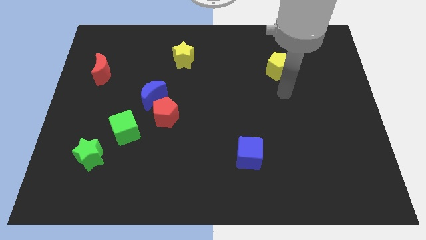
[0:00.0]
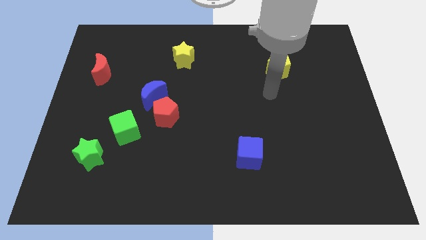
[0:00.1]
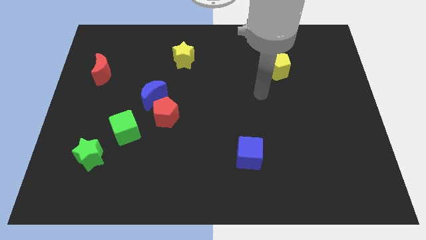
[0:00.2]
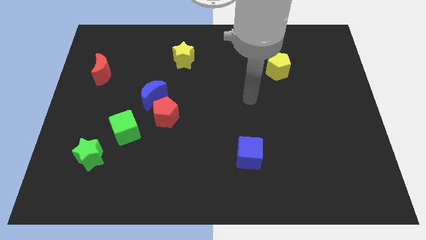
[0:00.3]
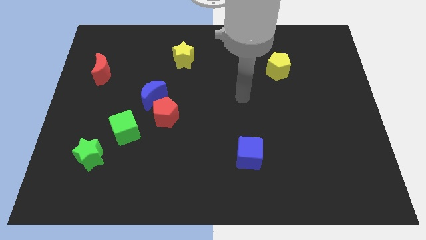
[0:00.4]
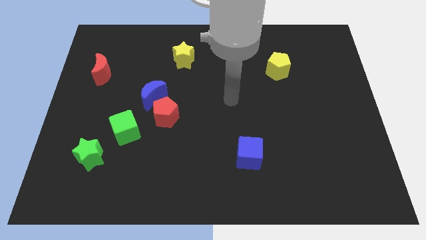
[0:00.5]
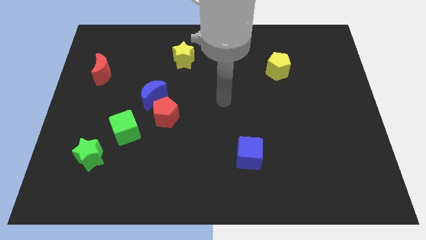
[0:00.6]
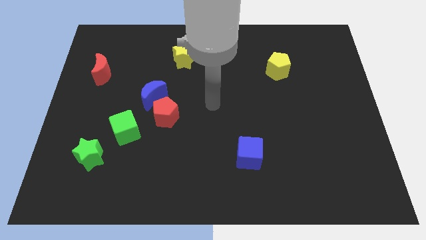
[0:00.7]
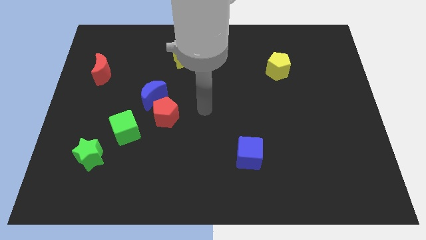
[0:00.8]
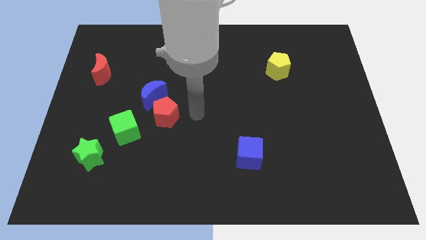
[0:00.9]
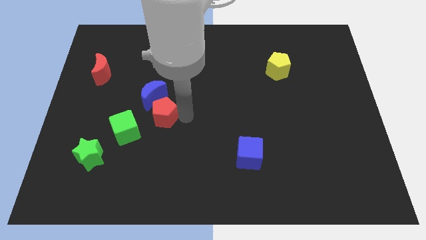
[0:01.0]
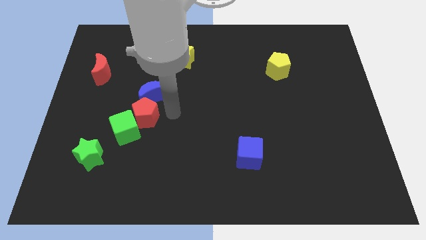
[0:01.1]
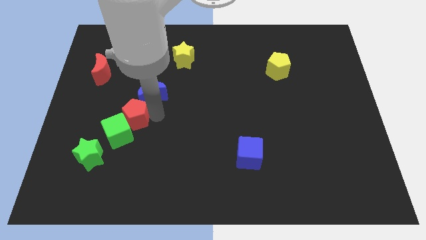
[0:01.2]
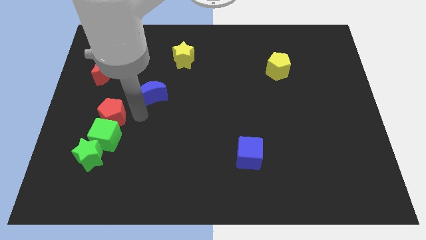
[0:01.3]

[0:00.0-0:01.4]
separate the blue moon from the red pentagon

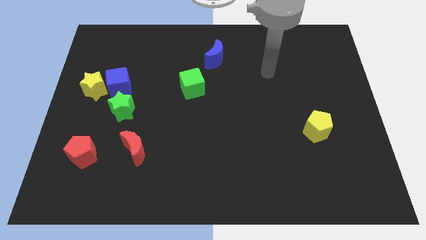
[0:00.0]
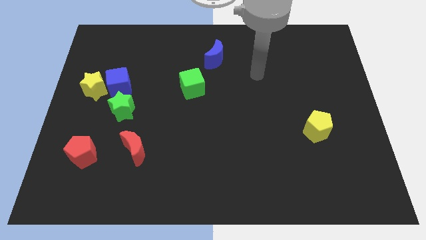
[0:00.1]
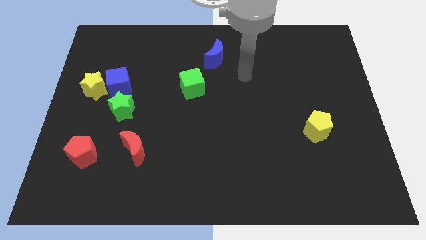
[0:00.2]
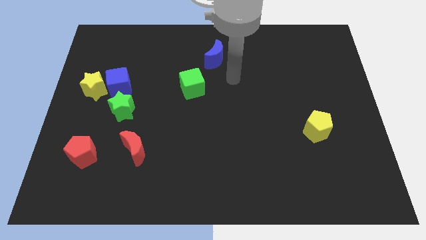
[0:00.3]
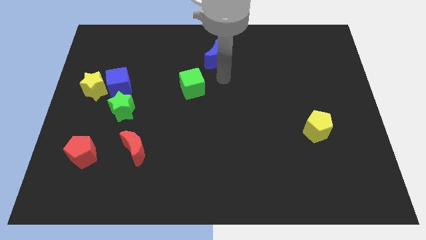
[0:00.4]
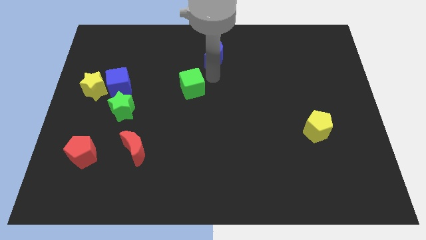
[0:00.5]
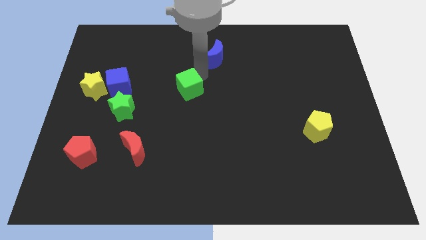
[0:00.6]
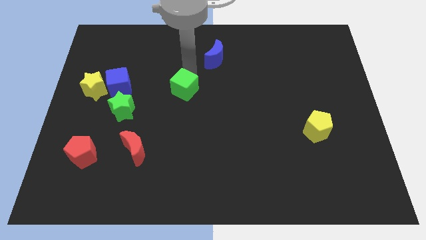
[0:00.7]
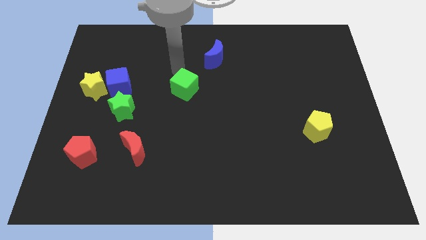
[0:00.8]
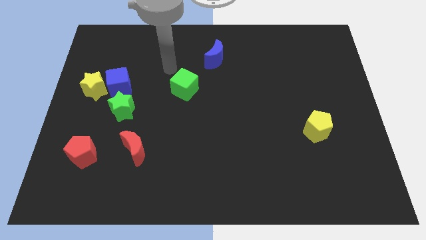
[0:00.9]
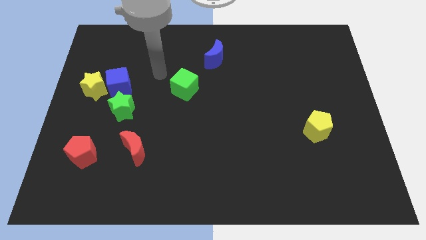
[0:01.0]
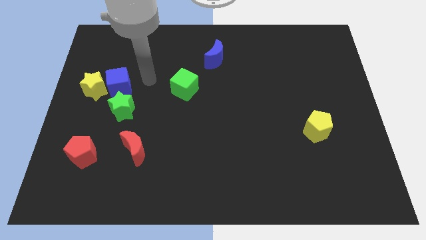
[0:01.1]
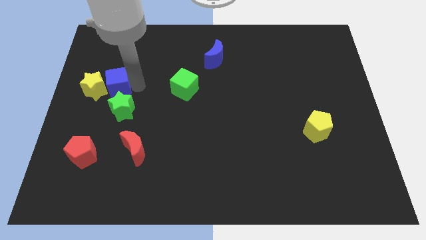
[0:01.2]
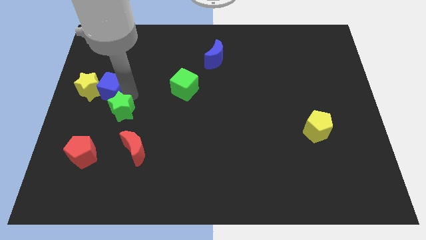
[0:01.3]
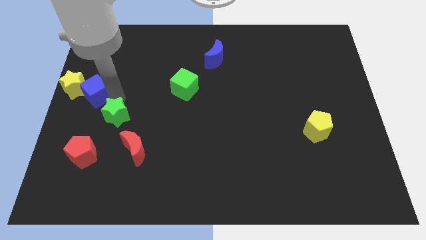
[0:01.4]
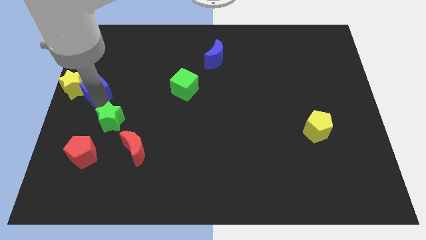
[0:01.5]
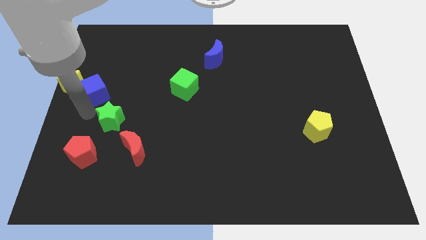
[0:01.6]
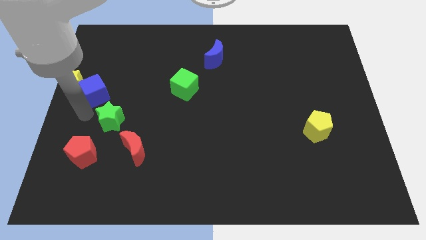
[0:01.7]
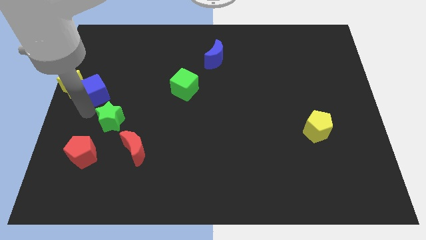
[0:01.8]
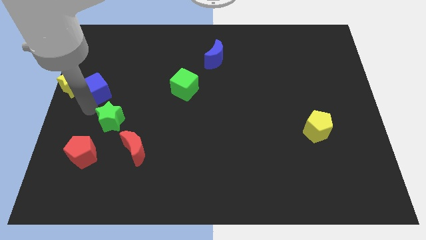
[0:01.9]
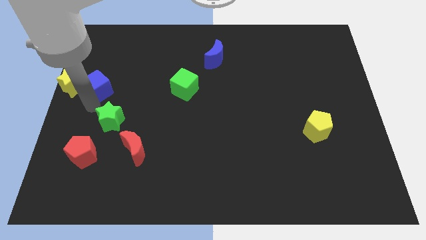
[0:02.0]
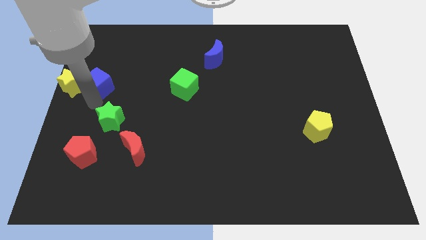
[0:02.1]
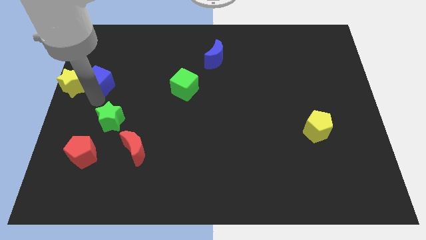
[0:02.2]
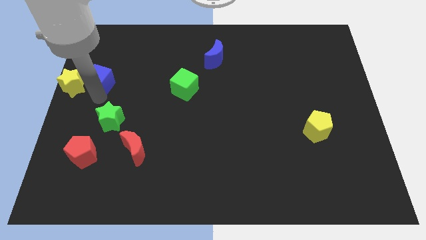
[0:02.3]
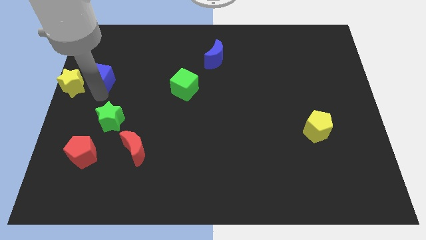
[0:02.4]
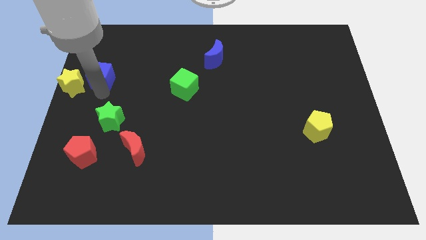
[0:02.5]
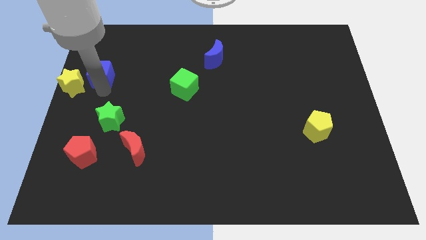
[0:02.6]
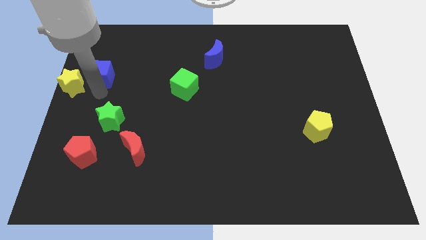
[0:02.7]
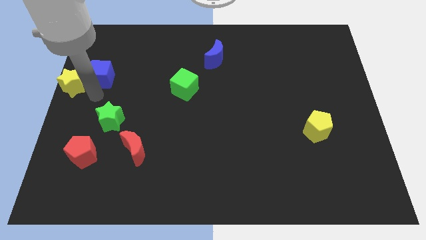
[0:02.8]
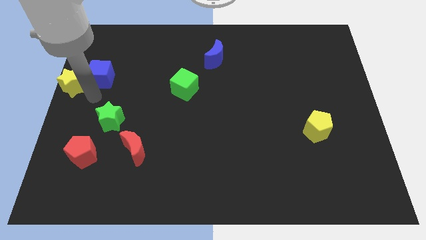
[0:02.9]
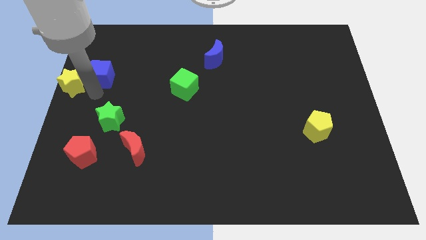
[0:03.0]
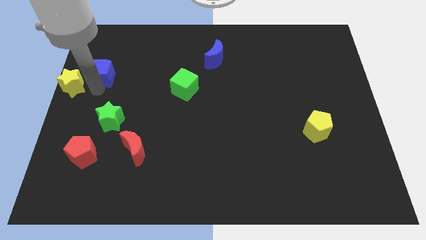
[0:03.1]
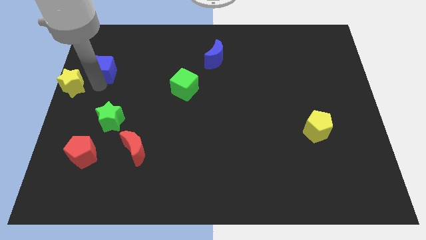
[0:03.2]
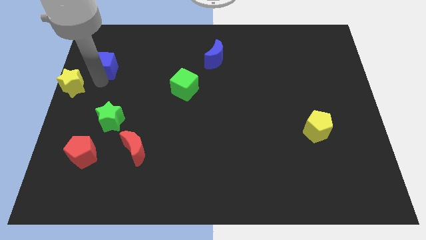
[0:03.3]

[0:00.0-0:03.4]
move the blue cube away from the yellow star and green star

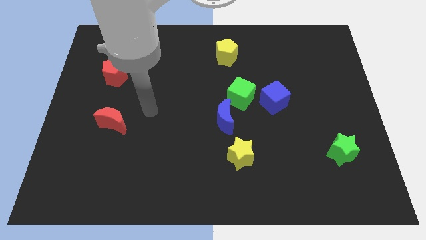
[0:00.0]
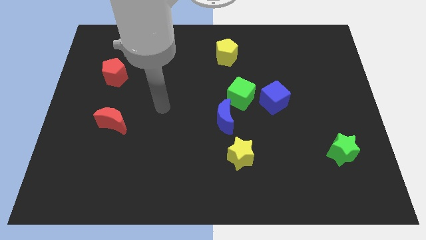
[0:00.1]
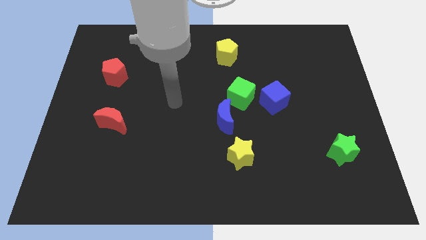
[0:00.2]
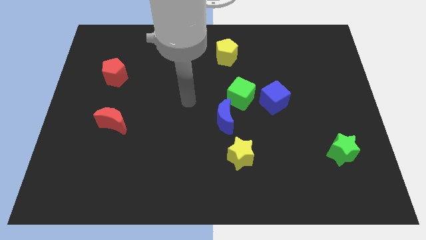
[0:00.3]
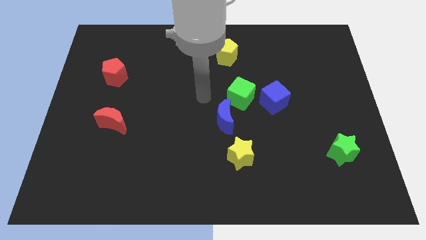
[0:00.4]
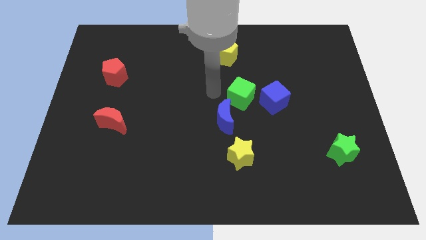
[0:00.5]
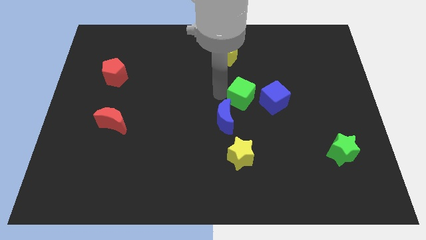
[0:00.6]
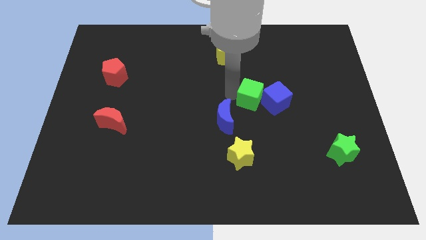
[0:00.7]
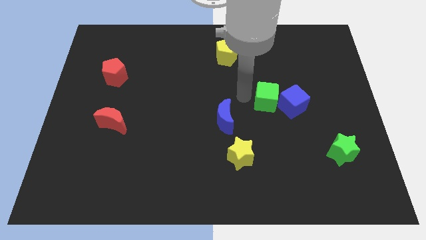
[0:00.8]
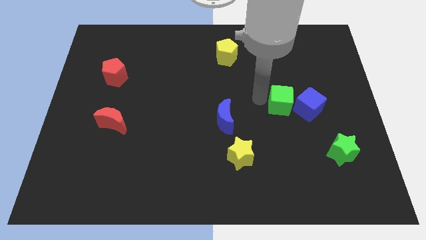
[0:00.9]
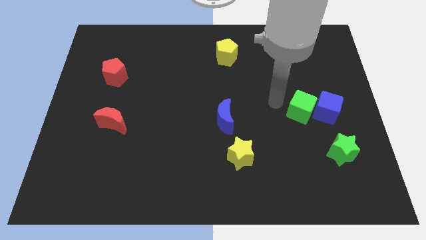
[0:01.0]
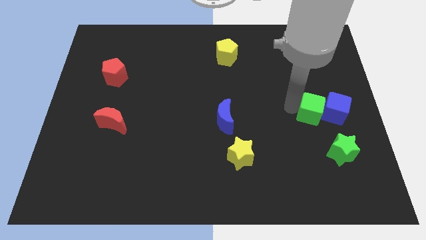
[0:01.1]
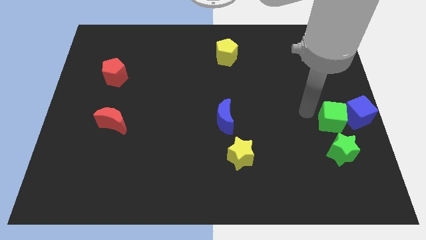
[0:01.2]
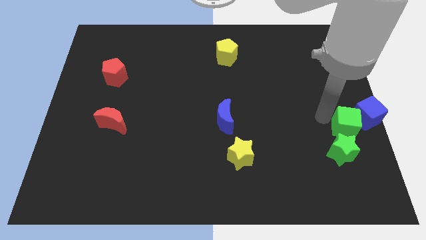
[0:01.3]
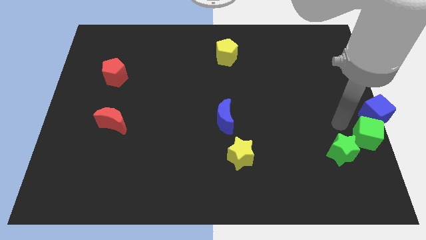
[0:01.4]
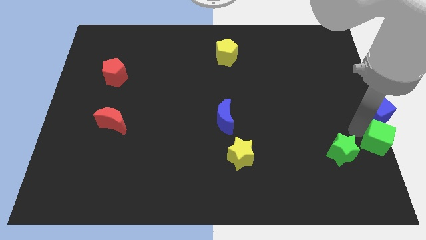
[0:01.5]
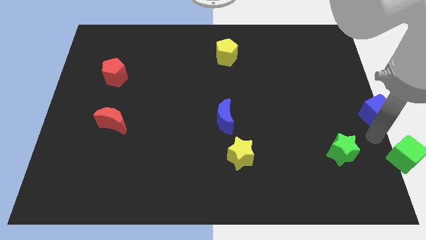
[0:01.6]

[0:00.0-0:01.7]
separate the blue cube from the green cube

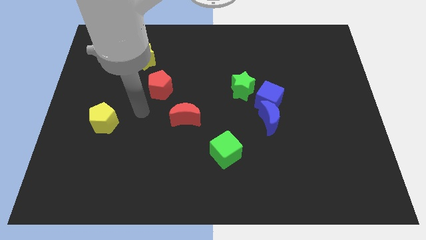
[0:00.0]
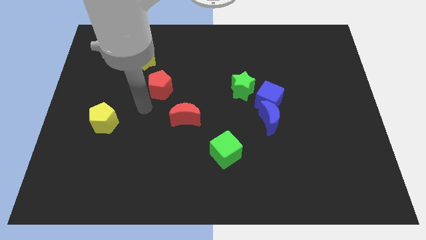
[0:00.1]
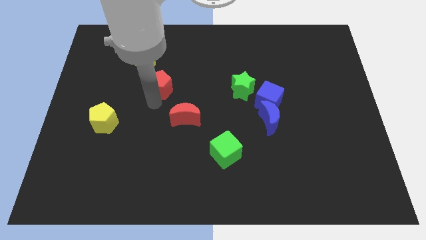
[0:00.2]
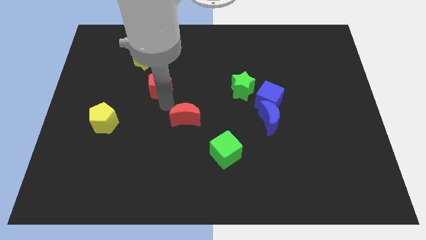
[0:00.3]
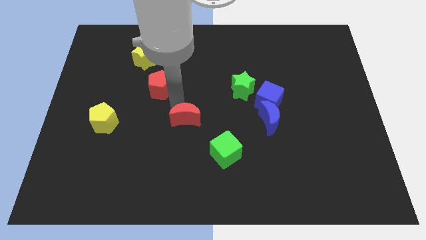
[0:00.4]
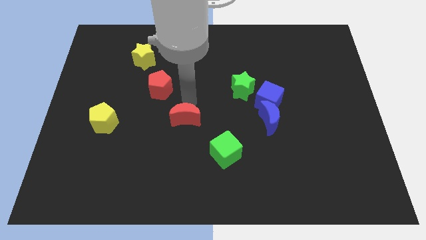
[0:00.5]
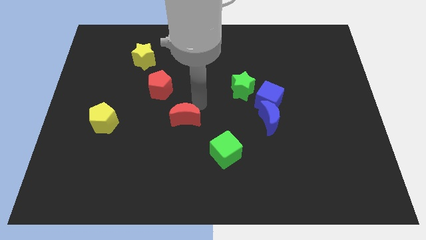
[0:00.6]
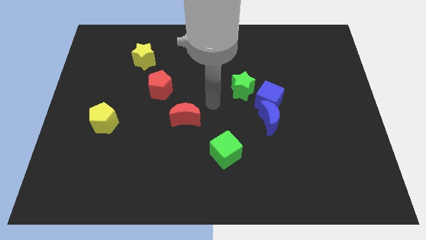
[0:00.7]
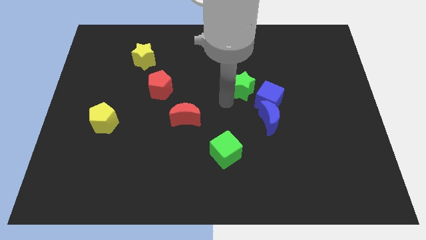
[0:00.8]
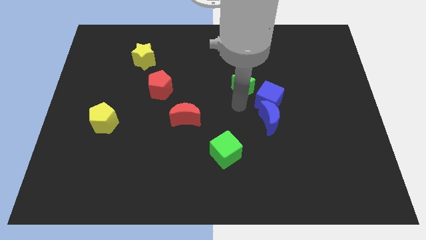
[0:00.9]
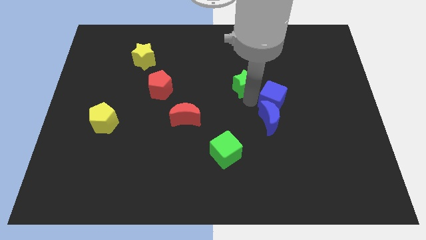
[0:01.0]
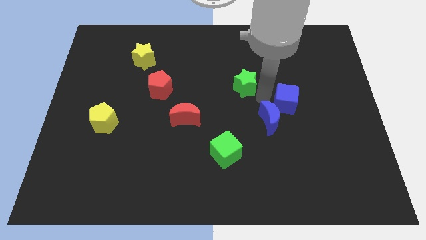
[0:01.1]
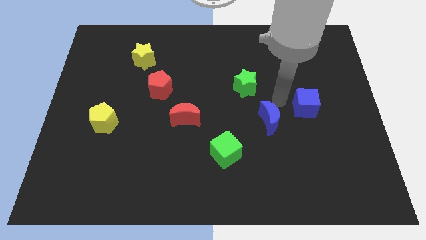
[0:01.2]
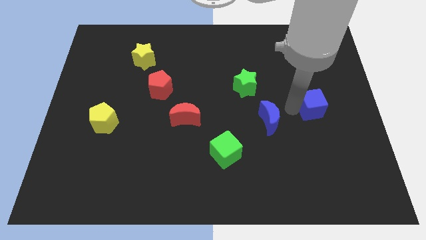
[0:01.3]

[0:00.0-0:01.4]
move the blue moon away from the blue cube

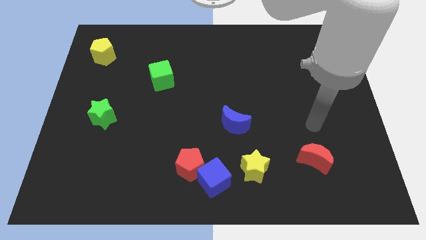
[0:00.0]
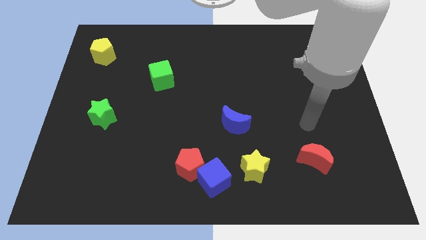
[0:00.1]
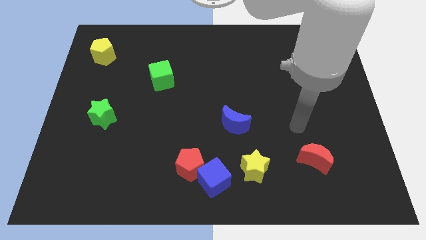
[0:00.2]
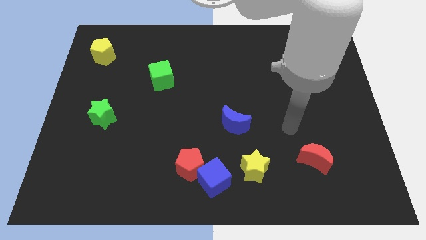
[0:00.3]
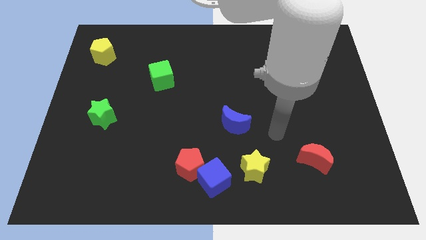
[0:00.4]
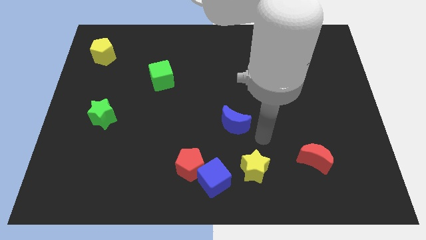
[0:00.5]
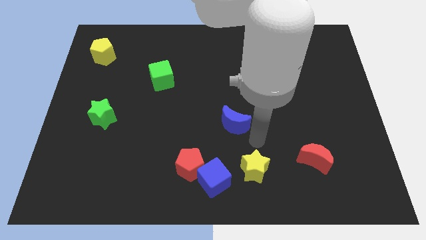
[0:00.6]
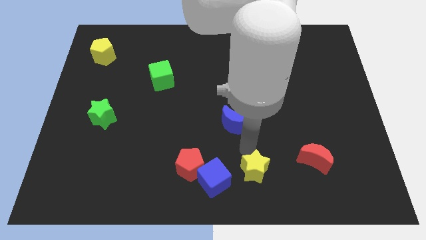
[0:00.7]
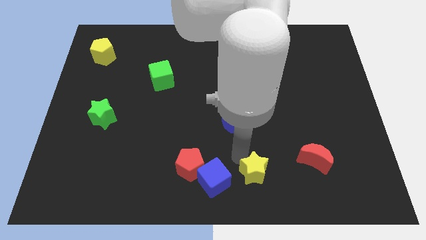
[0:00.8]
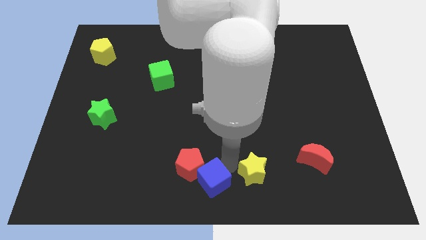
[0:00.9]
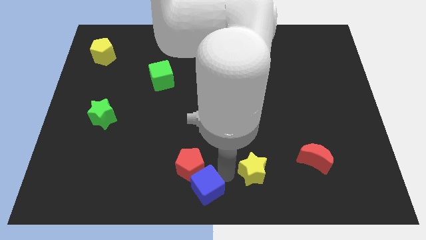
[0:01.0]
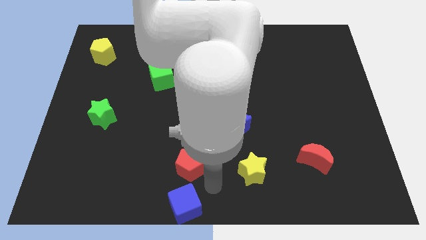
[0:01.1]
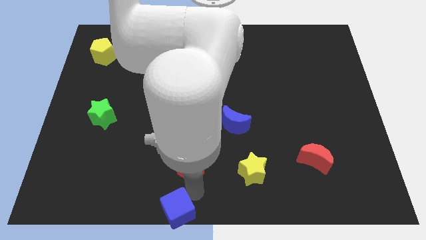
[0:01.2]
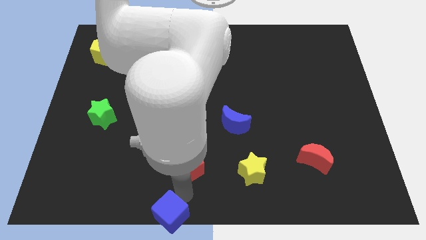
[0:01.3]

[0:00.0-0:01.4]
move the red pentagon away from the blue cube
